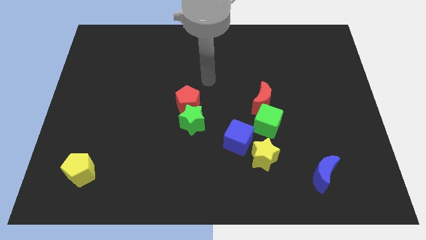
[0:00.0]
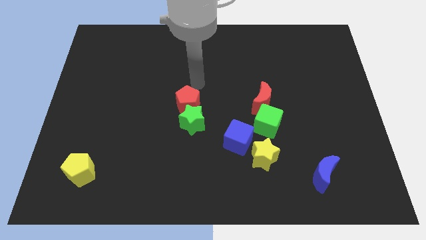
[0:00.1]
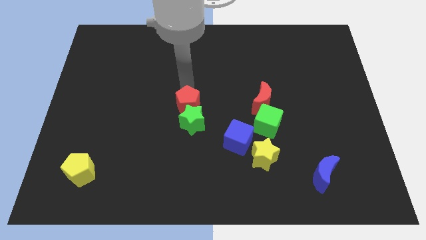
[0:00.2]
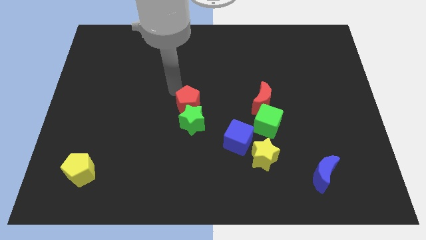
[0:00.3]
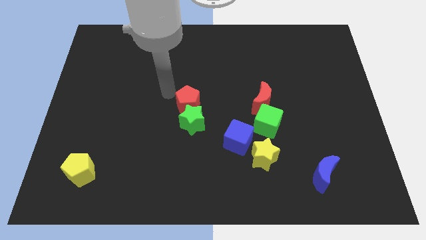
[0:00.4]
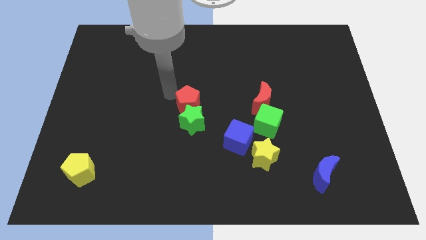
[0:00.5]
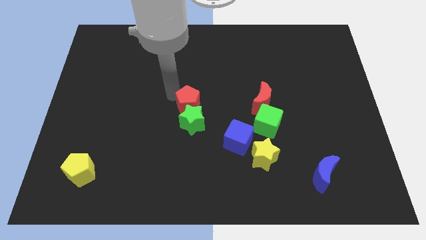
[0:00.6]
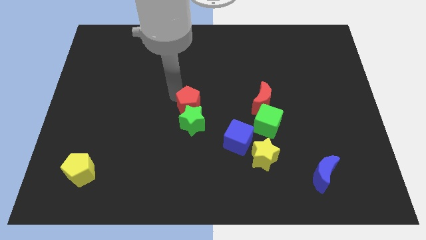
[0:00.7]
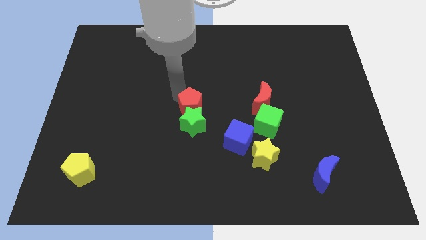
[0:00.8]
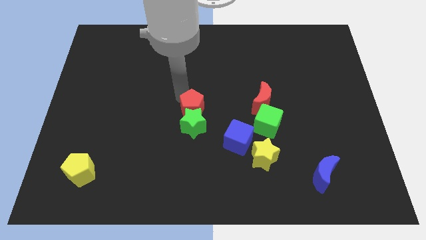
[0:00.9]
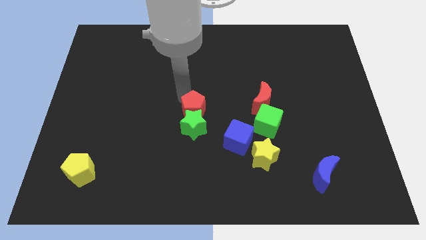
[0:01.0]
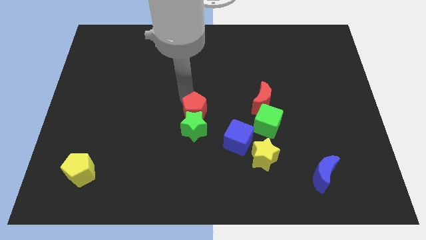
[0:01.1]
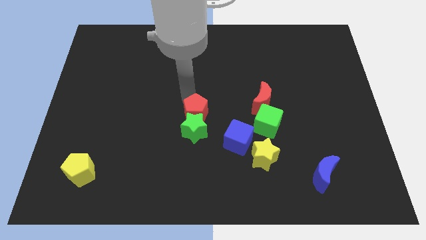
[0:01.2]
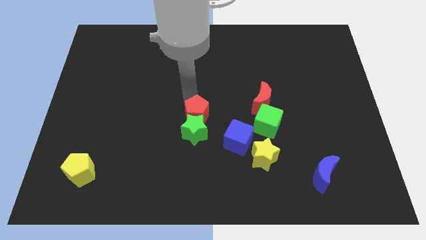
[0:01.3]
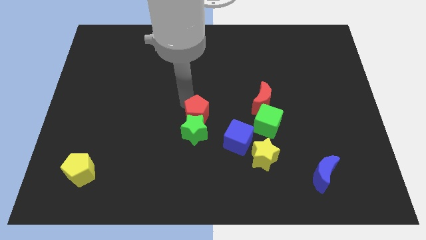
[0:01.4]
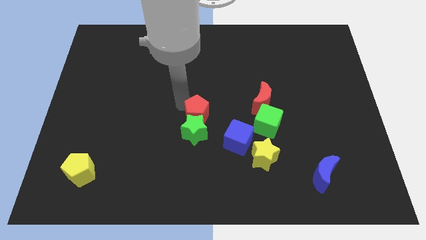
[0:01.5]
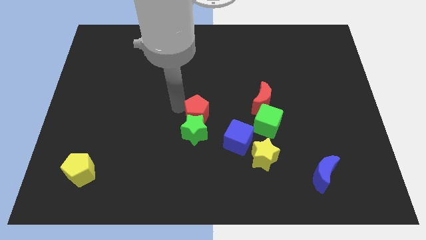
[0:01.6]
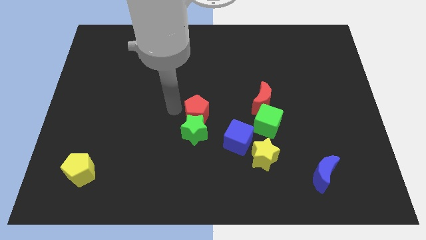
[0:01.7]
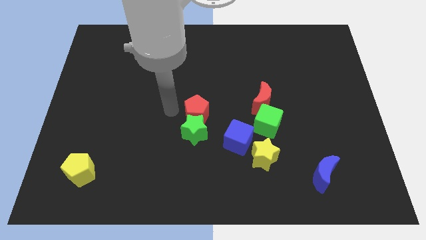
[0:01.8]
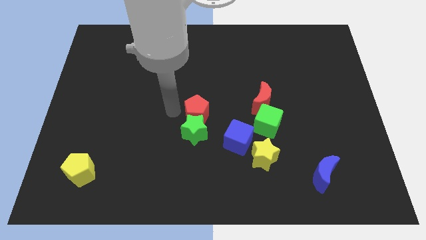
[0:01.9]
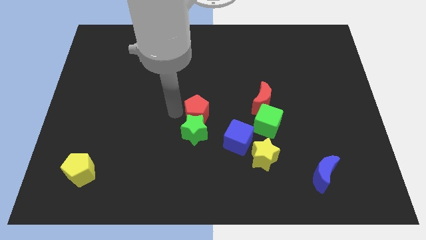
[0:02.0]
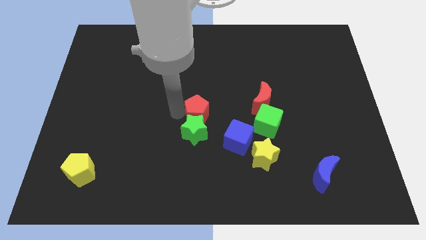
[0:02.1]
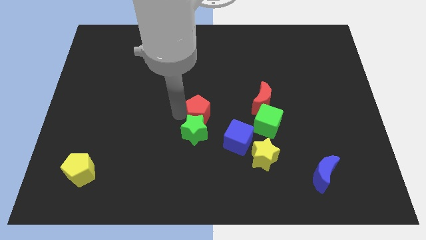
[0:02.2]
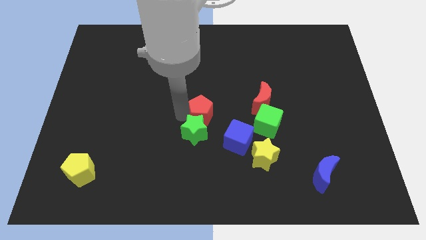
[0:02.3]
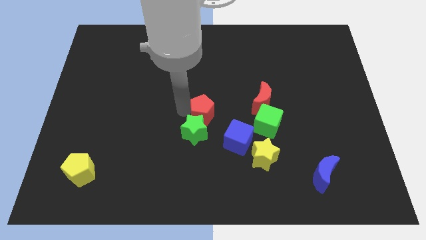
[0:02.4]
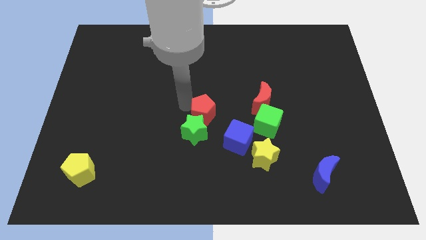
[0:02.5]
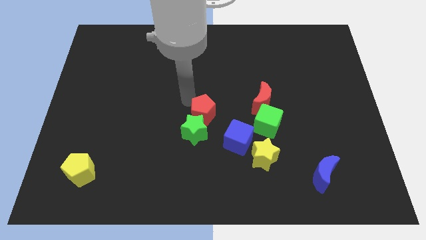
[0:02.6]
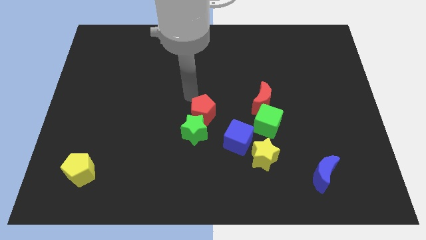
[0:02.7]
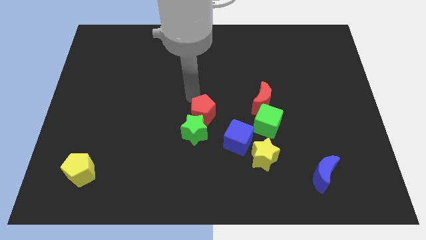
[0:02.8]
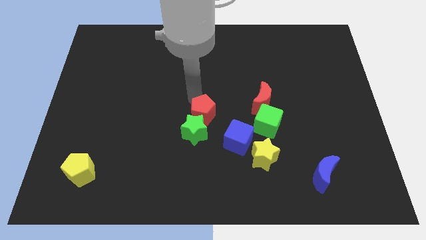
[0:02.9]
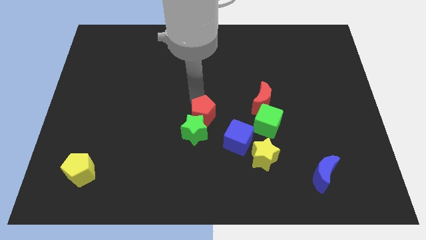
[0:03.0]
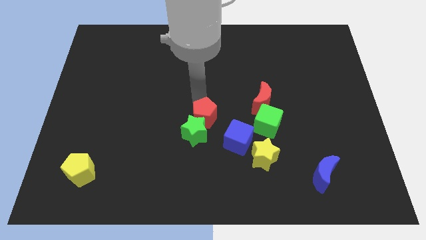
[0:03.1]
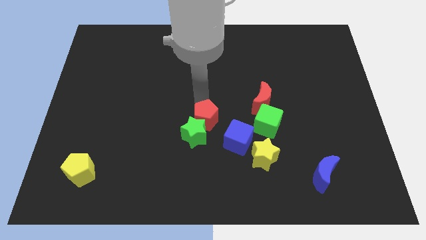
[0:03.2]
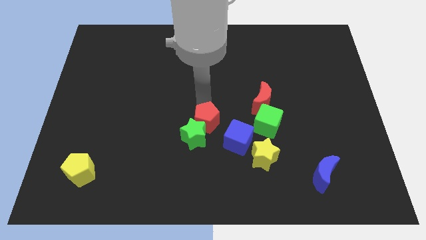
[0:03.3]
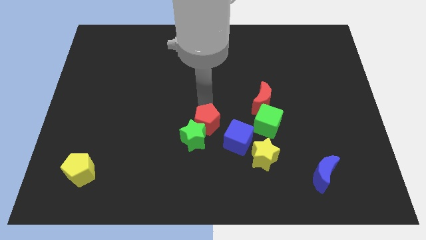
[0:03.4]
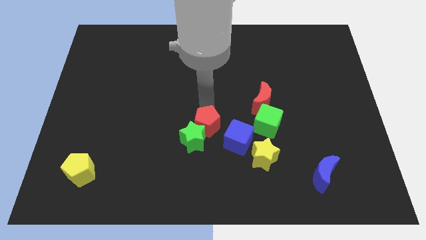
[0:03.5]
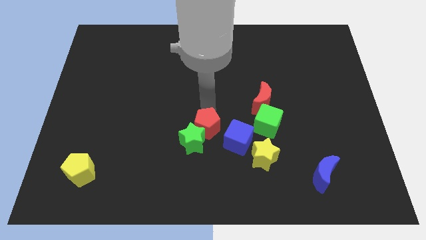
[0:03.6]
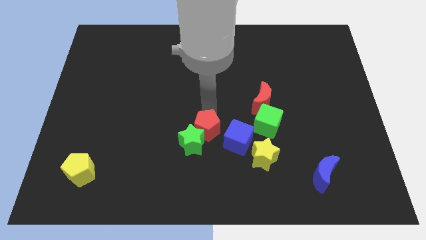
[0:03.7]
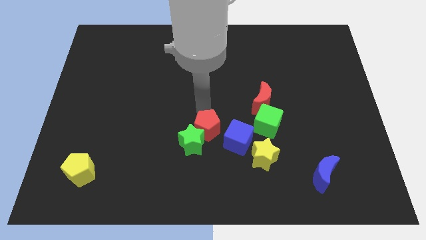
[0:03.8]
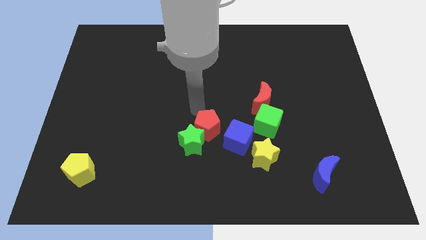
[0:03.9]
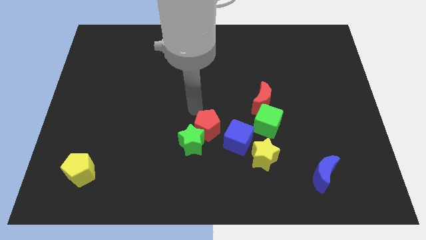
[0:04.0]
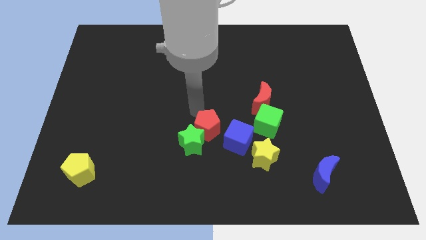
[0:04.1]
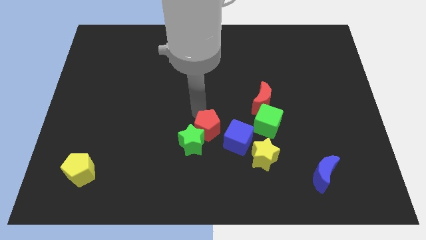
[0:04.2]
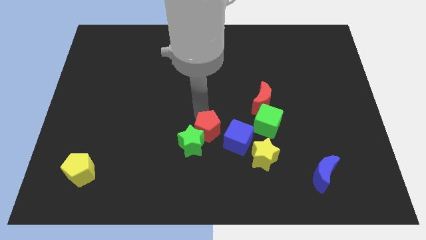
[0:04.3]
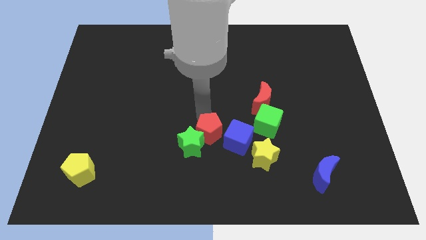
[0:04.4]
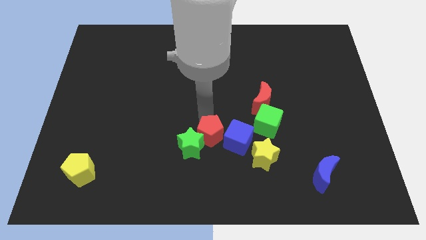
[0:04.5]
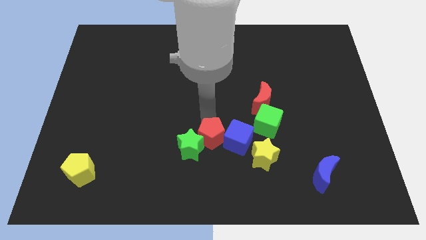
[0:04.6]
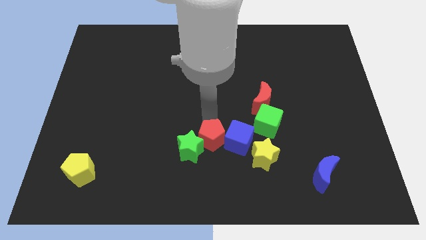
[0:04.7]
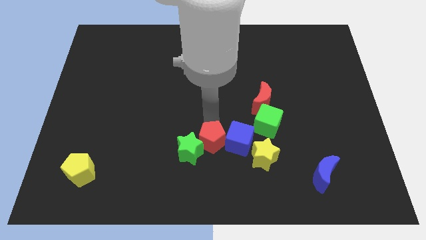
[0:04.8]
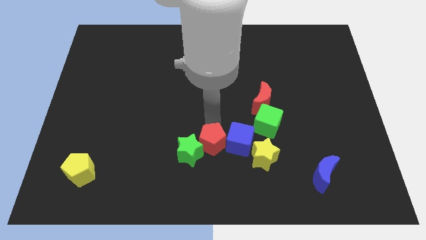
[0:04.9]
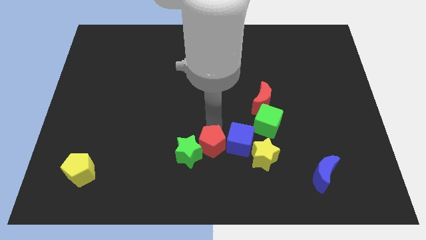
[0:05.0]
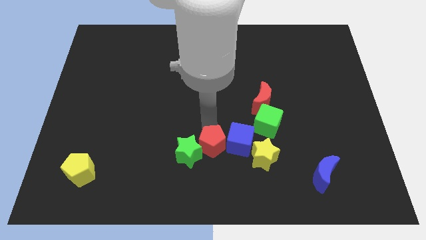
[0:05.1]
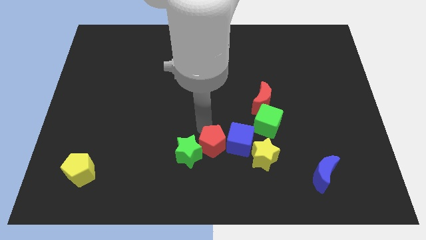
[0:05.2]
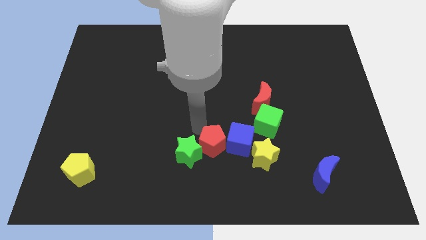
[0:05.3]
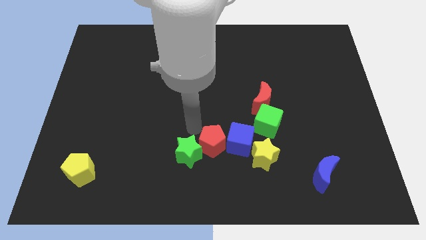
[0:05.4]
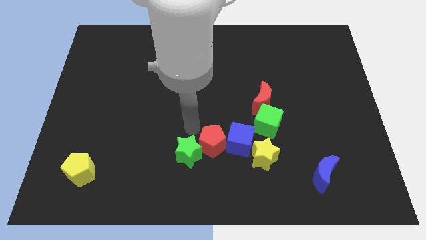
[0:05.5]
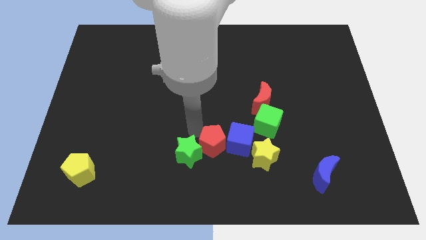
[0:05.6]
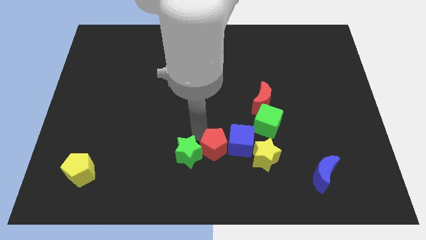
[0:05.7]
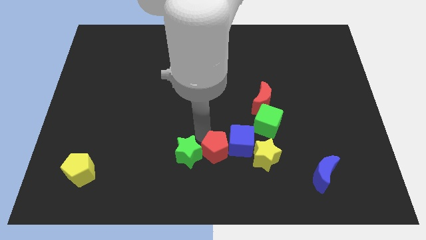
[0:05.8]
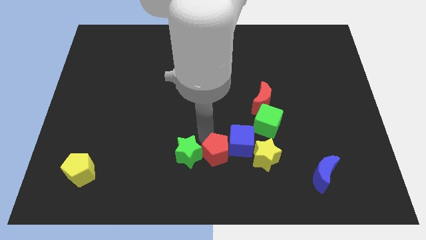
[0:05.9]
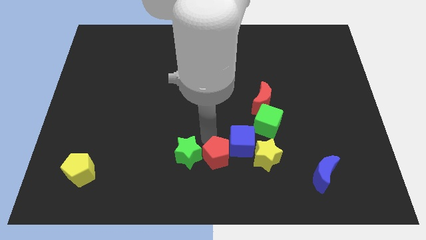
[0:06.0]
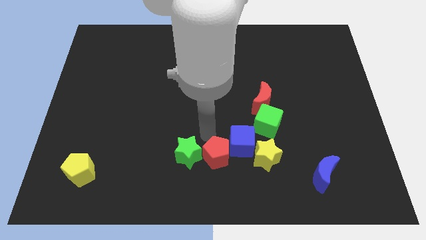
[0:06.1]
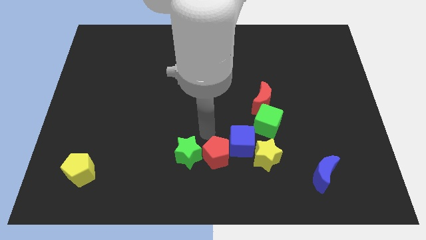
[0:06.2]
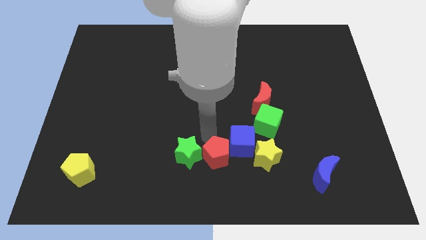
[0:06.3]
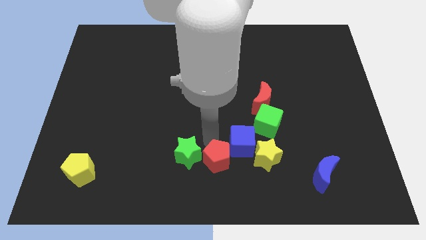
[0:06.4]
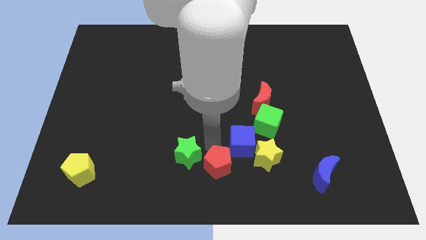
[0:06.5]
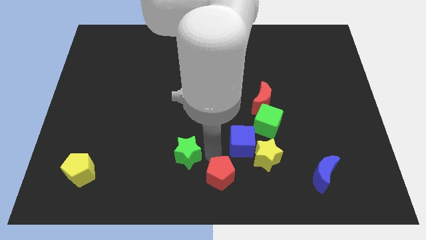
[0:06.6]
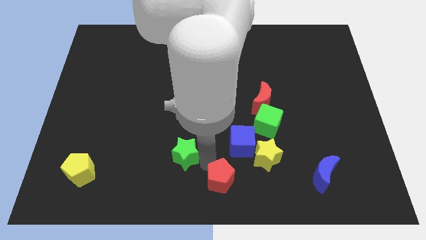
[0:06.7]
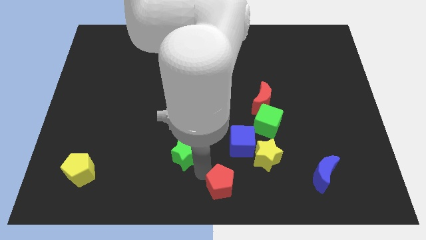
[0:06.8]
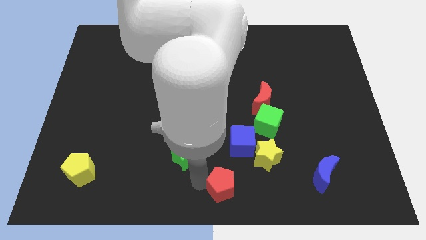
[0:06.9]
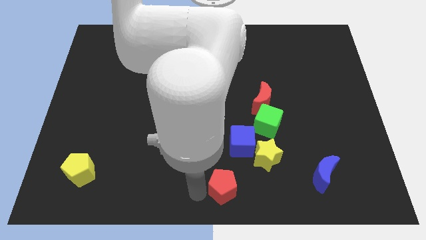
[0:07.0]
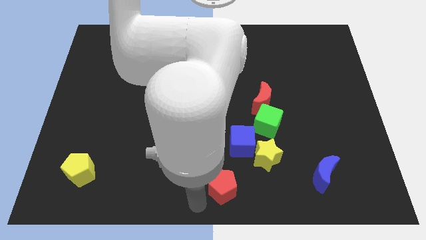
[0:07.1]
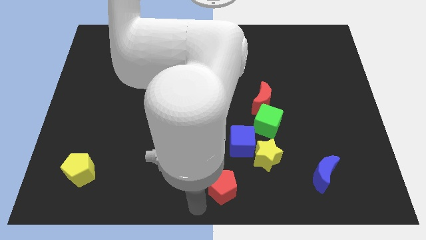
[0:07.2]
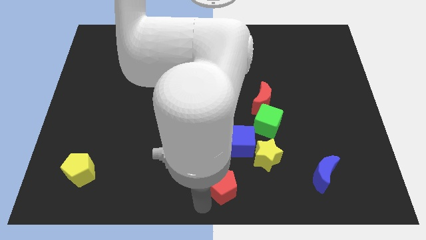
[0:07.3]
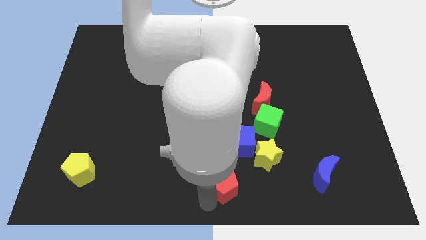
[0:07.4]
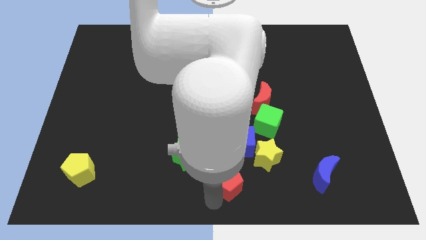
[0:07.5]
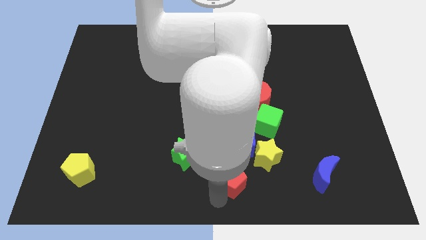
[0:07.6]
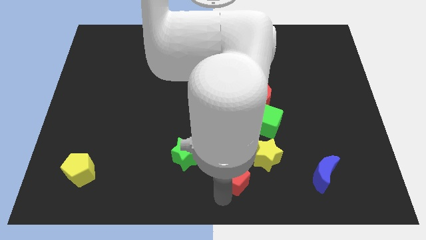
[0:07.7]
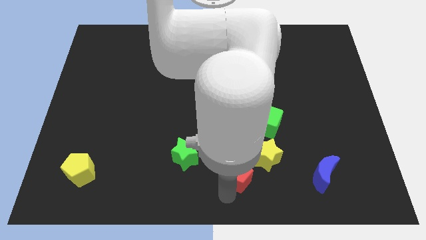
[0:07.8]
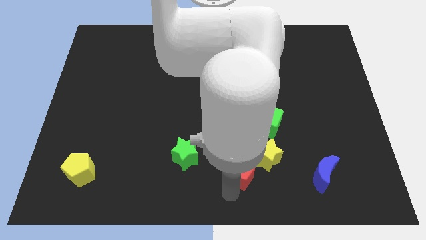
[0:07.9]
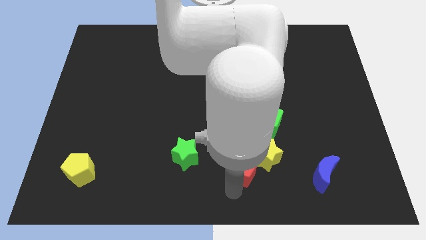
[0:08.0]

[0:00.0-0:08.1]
put the red pentagon next to the yellow star
